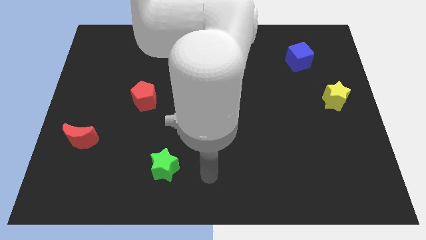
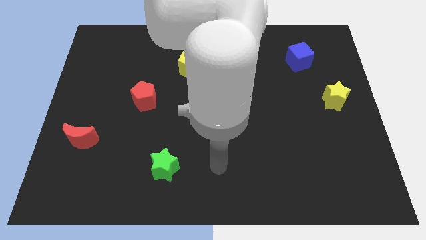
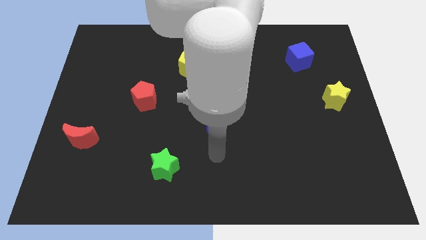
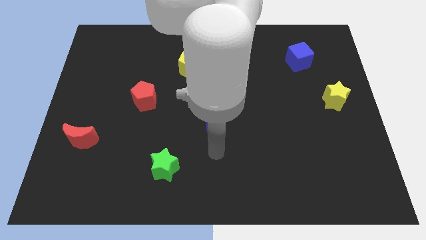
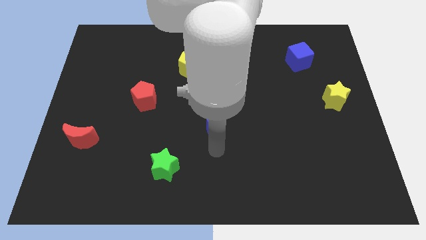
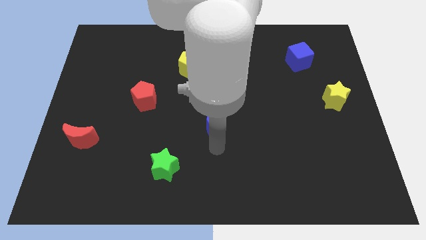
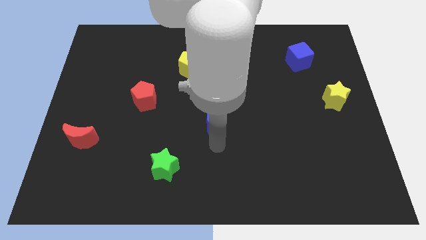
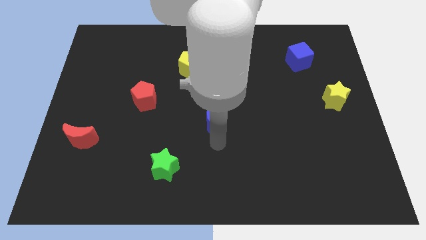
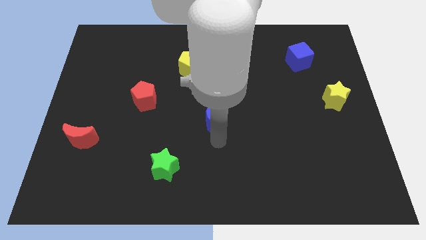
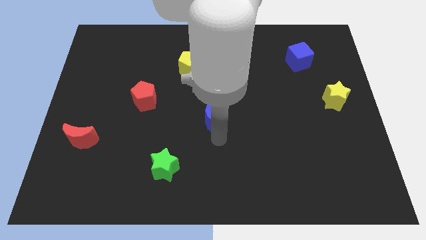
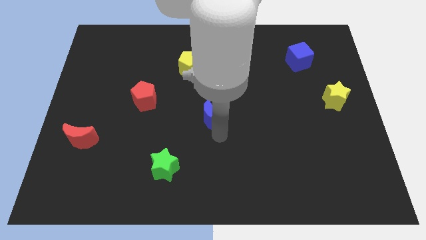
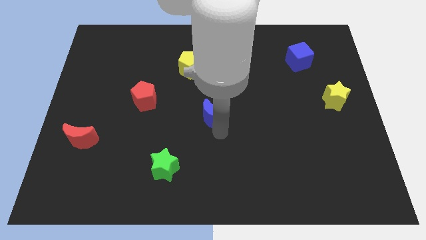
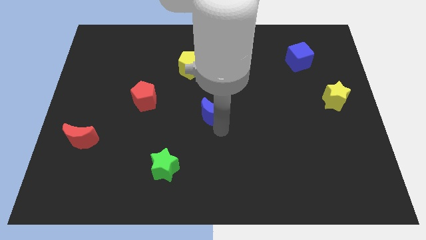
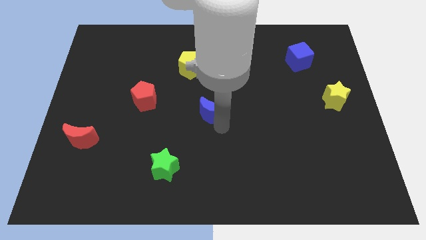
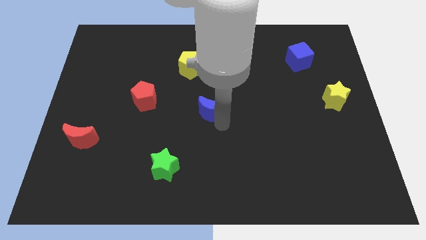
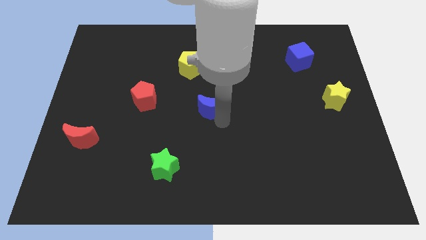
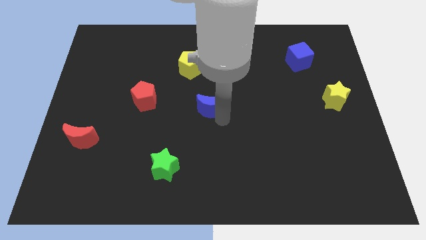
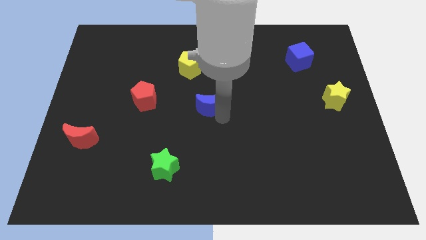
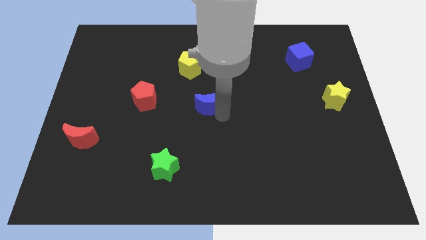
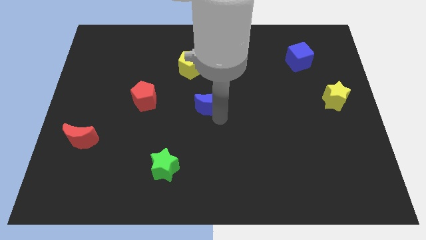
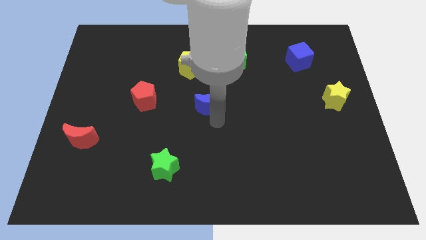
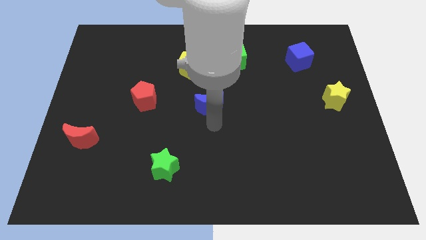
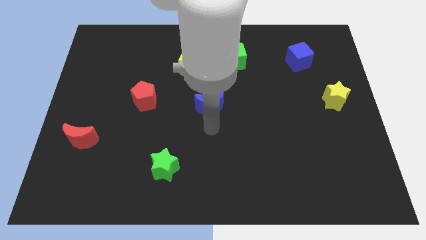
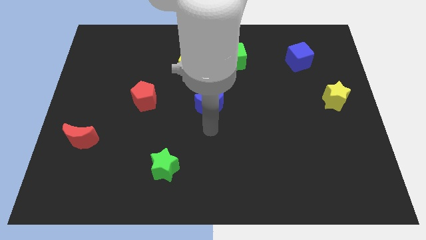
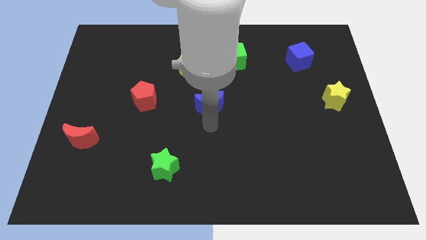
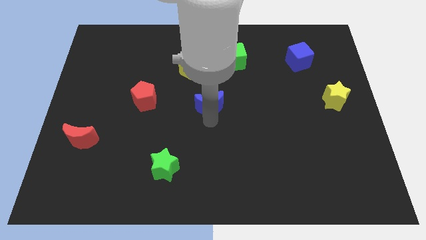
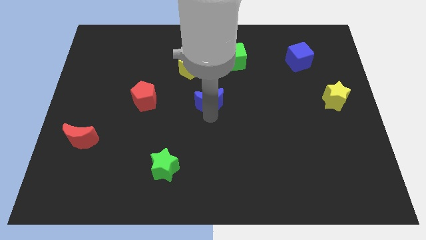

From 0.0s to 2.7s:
move the blue moon a little bit upwards

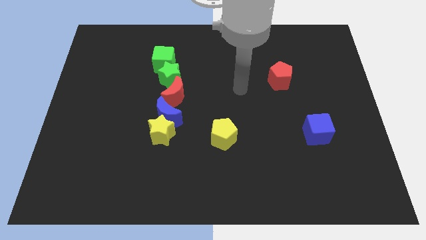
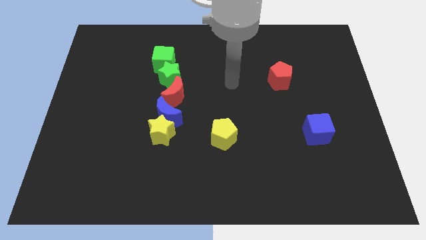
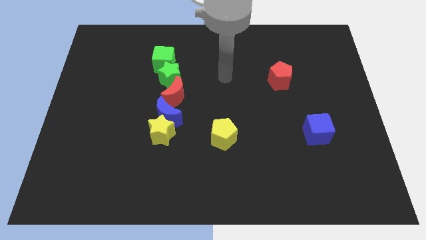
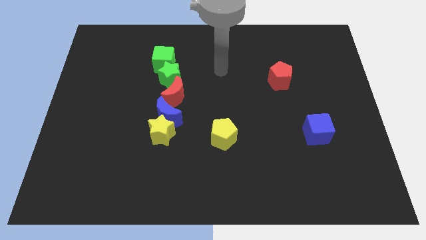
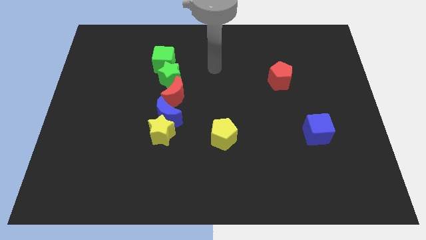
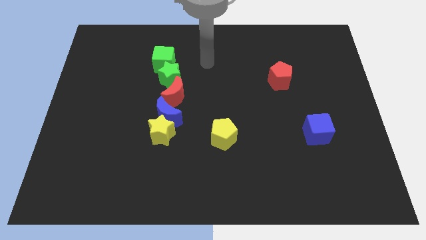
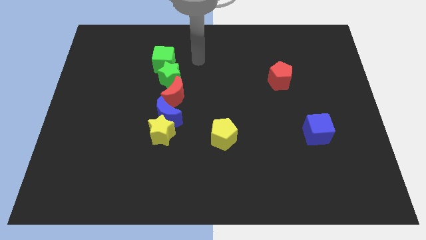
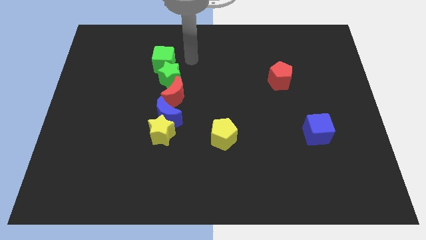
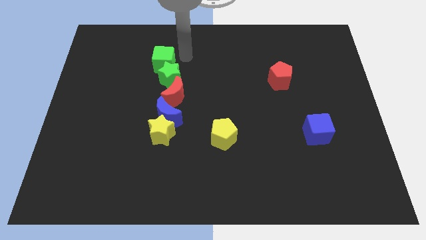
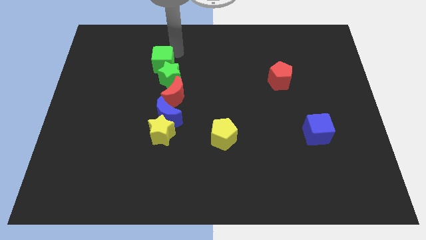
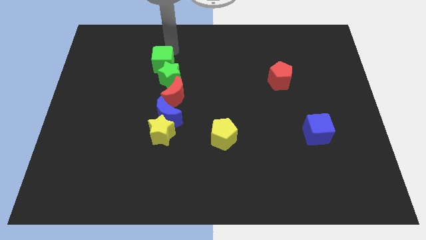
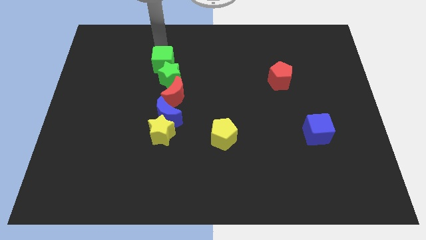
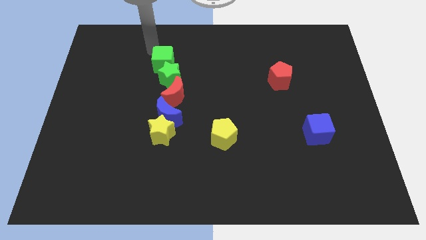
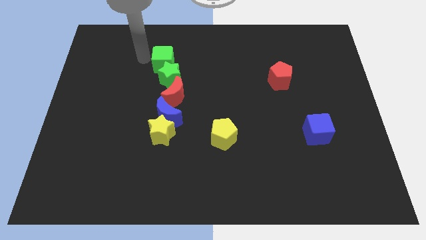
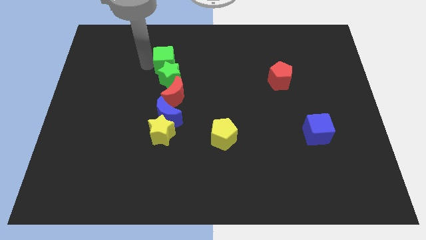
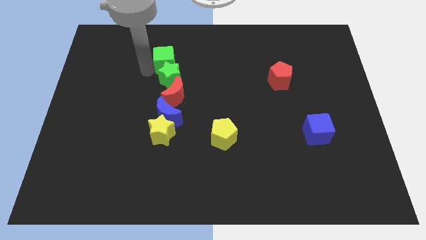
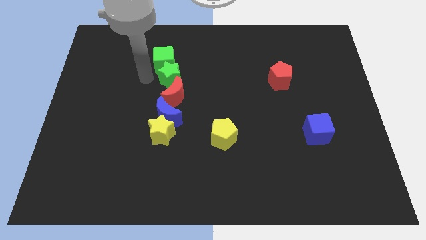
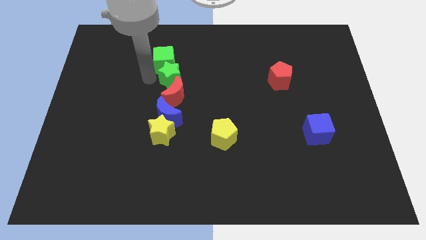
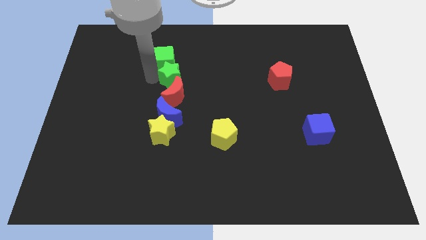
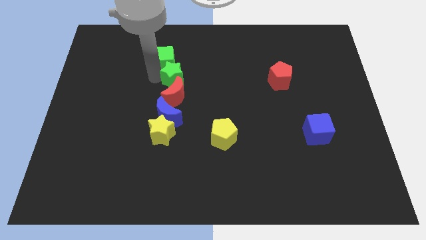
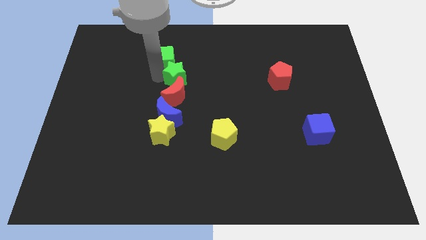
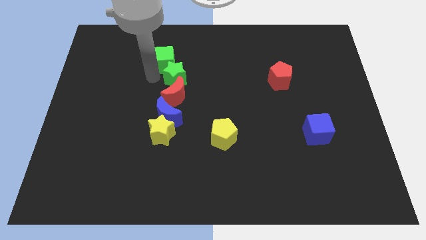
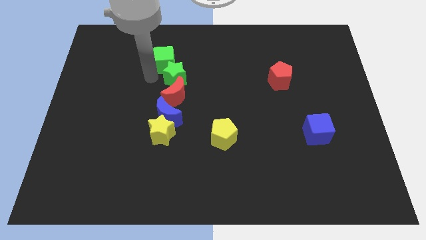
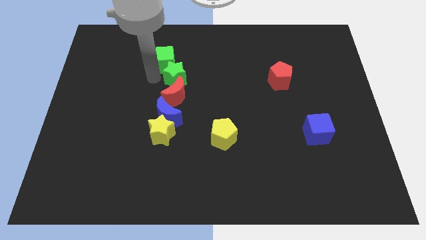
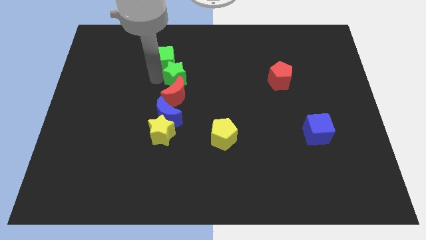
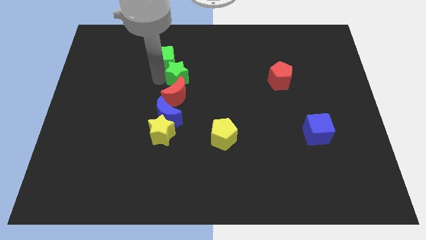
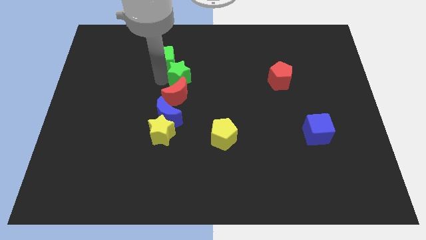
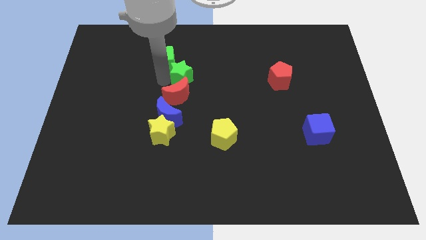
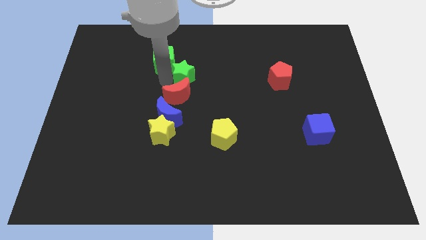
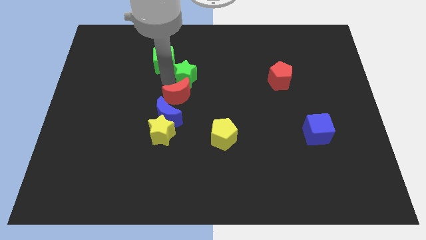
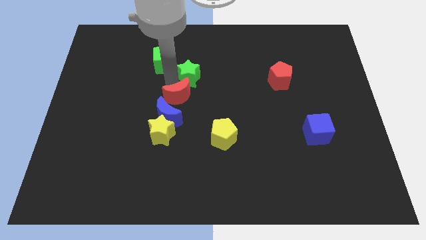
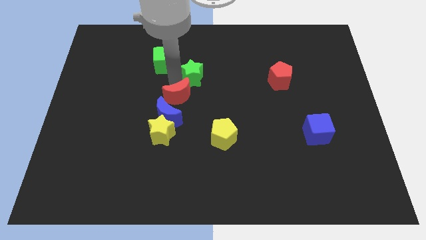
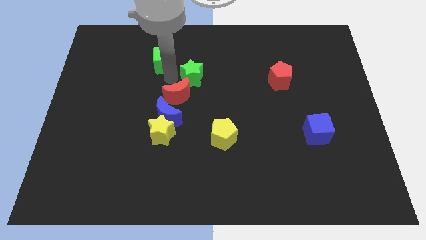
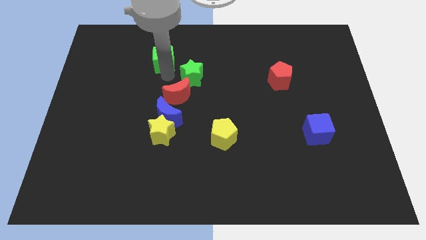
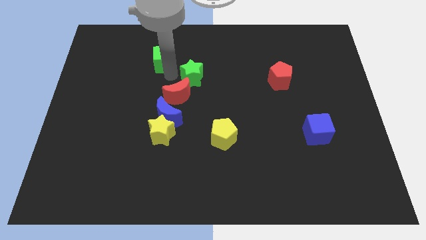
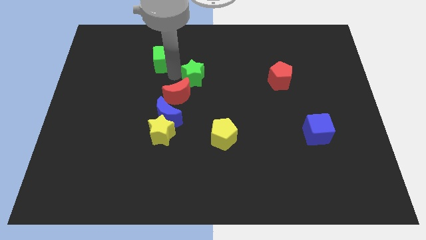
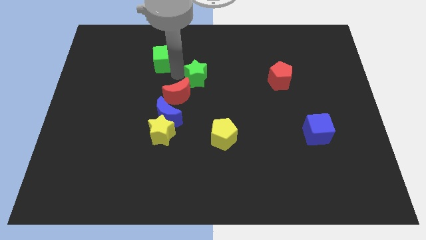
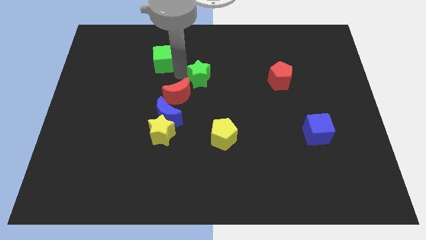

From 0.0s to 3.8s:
move the green star to the right slightly

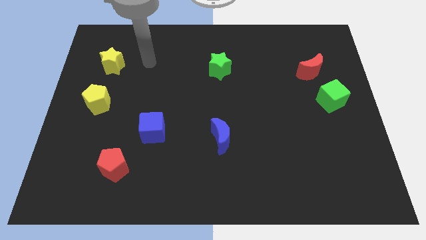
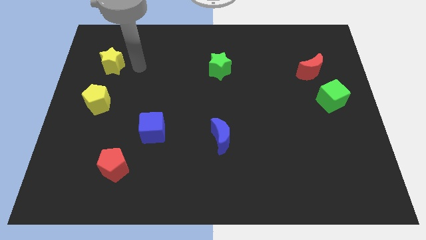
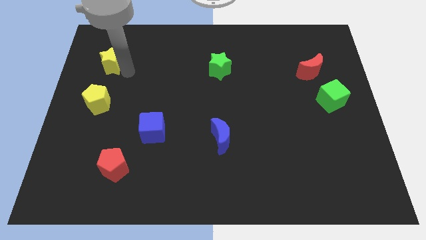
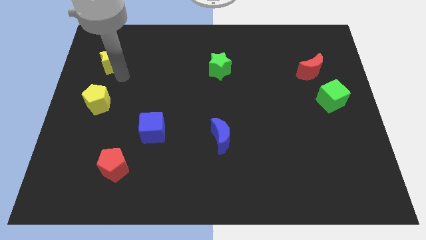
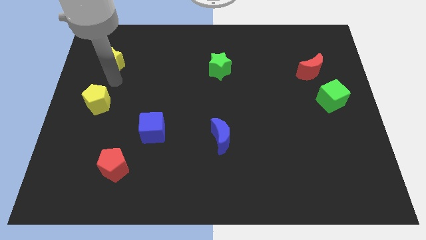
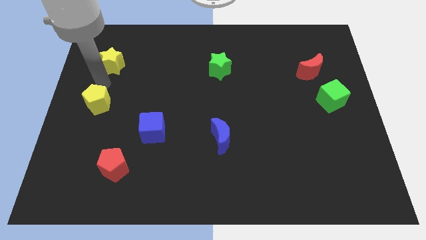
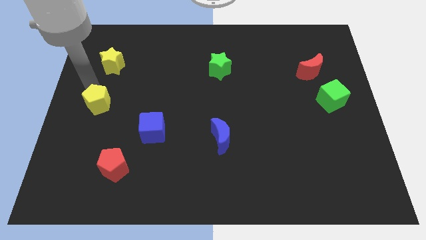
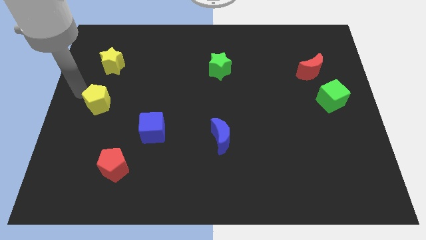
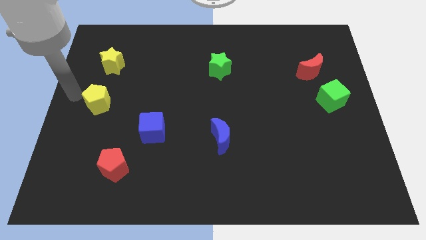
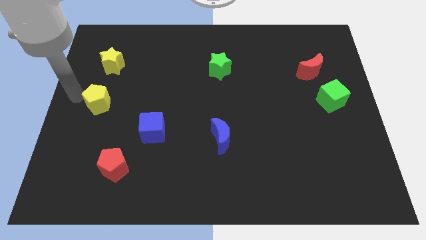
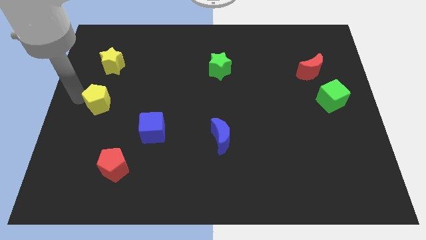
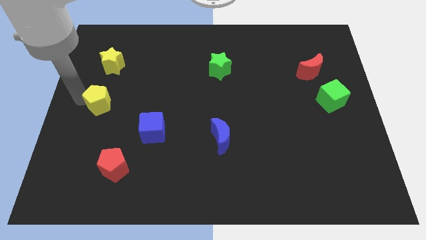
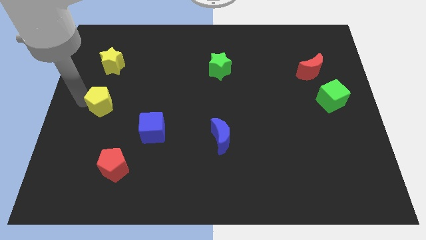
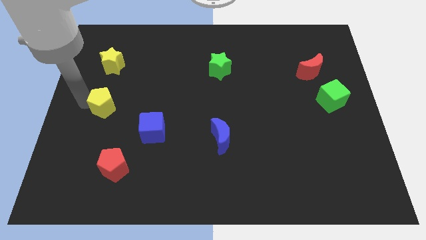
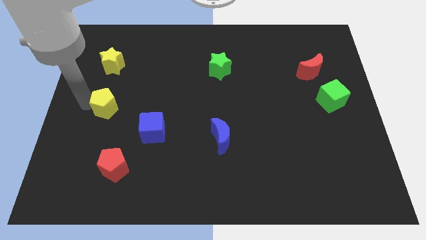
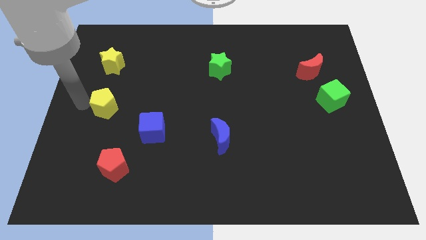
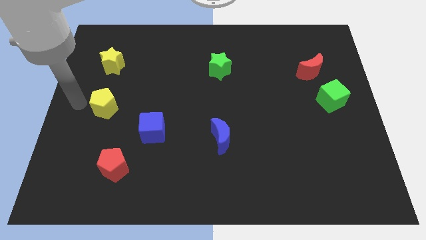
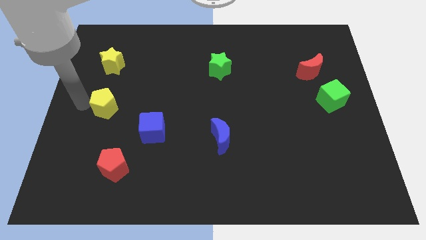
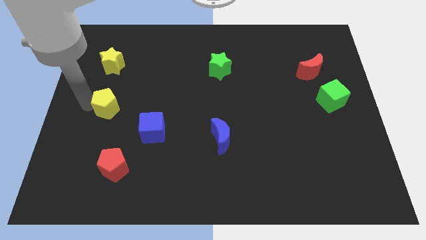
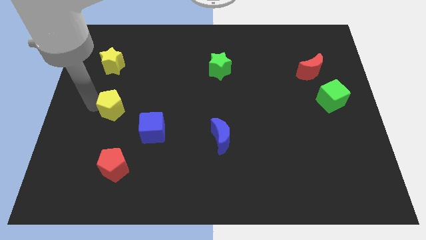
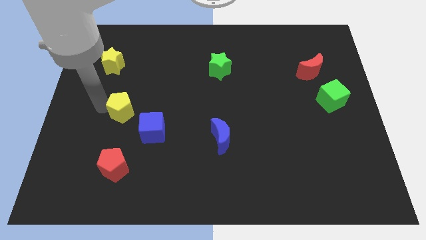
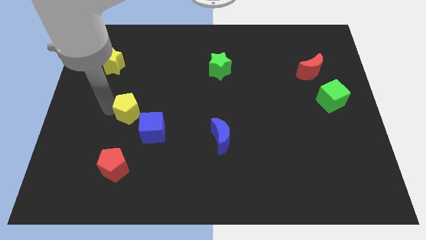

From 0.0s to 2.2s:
slightly slide the yellow pentagon to the right

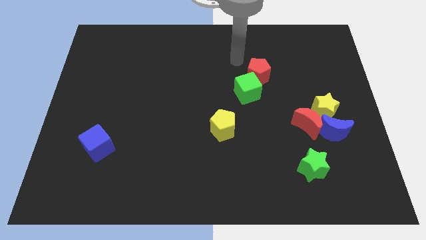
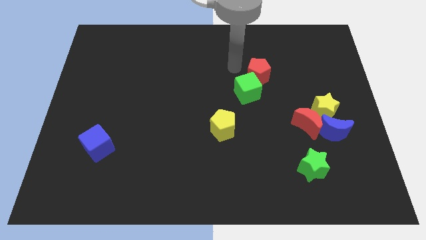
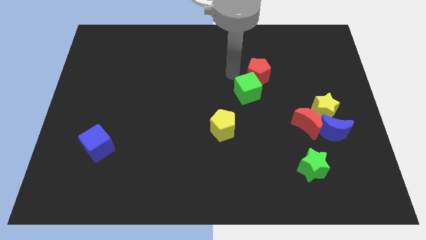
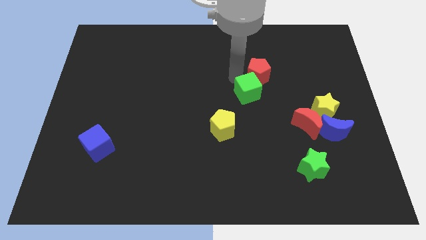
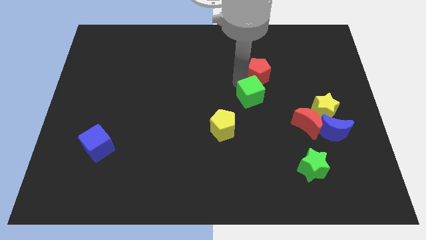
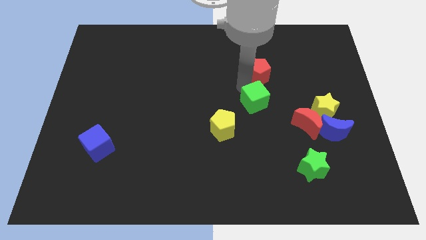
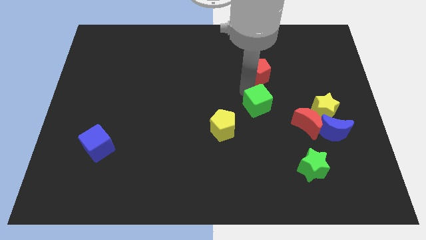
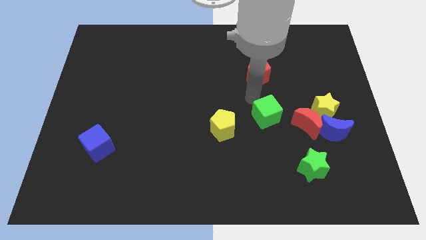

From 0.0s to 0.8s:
slightly move the green cube down and to the right
